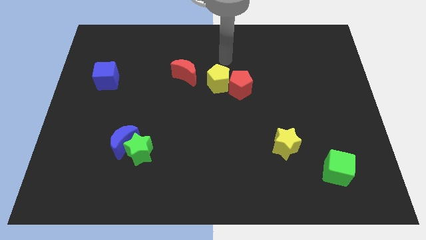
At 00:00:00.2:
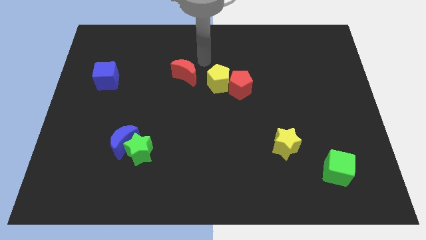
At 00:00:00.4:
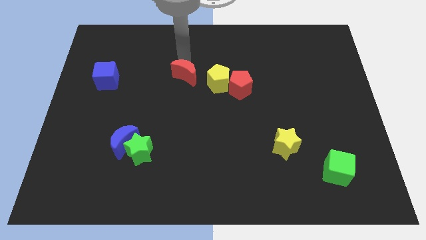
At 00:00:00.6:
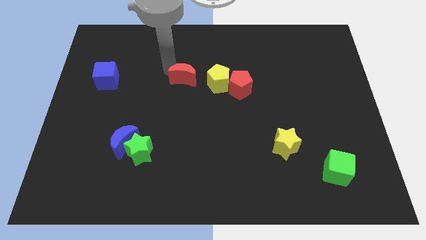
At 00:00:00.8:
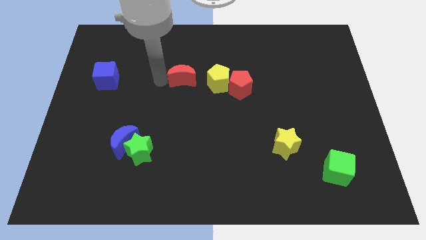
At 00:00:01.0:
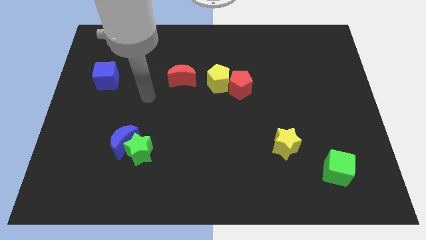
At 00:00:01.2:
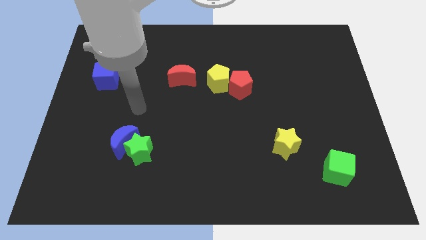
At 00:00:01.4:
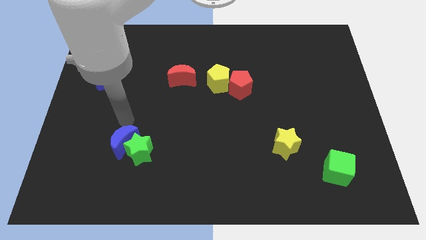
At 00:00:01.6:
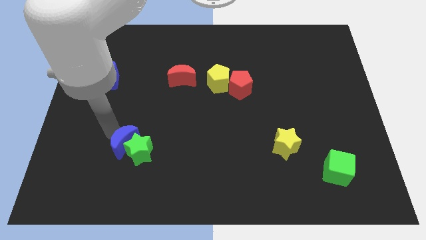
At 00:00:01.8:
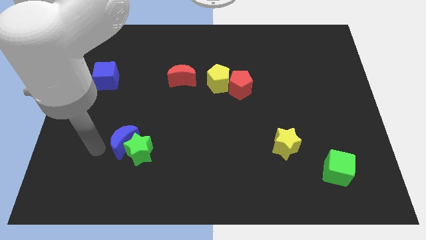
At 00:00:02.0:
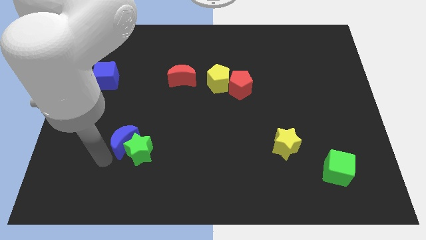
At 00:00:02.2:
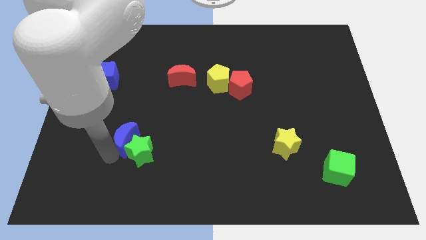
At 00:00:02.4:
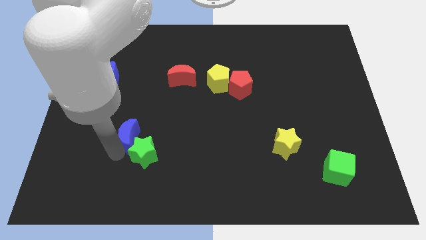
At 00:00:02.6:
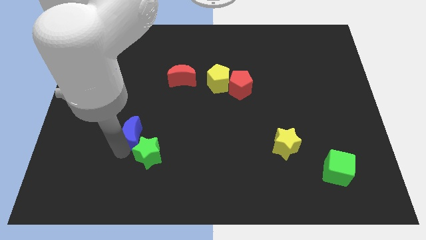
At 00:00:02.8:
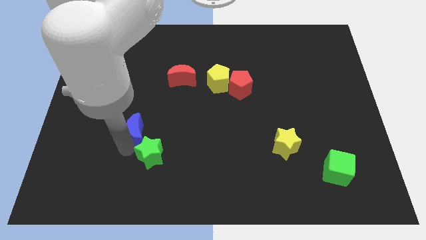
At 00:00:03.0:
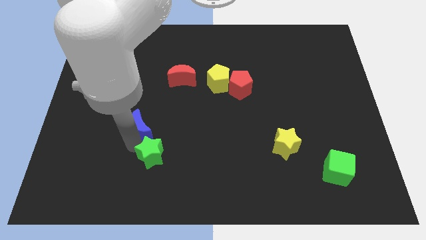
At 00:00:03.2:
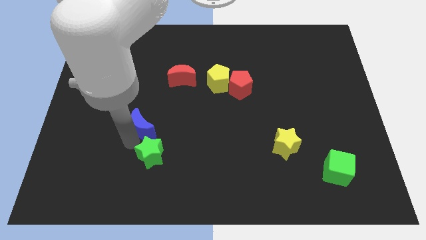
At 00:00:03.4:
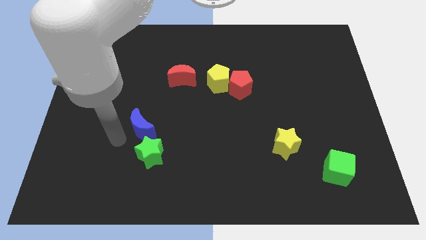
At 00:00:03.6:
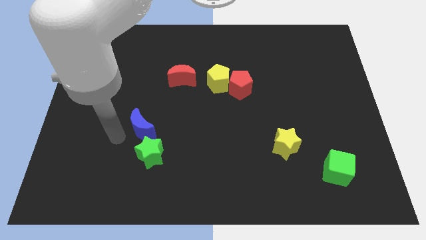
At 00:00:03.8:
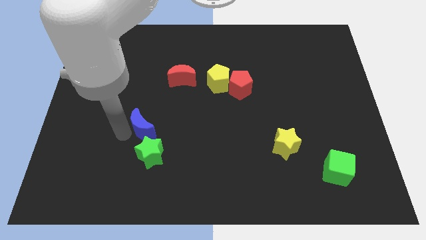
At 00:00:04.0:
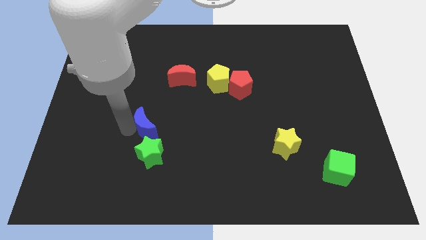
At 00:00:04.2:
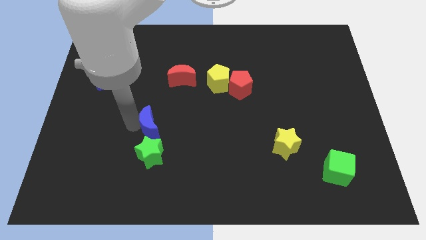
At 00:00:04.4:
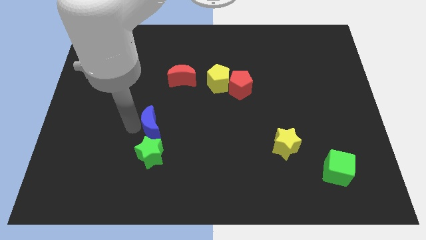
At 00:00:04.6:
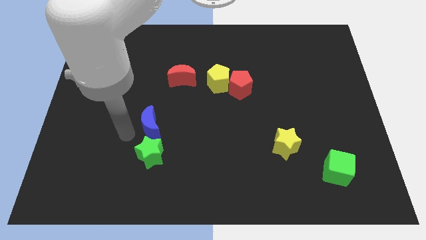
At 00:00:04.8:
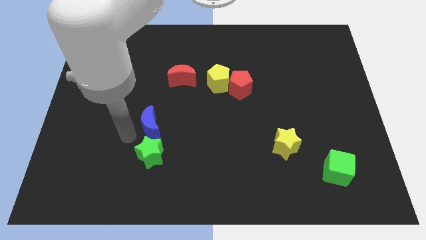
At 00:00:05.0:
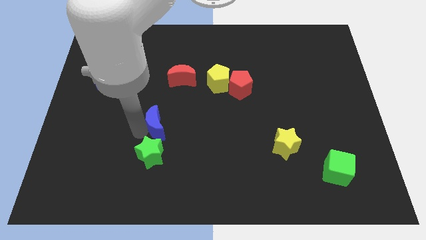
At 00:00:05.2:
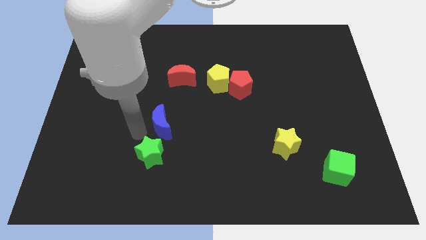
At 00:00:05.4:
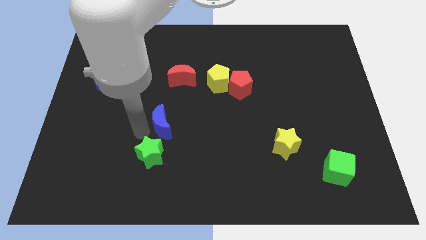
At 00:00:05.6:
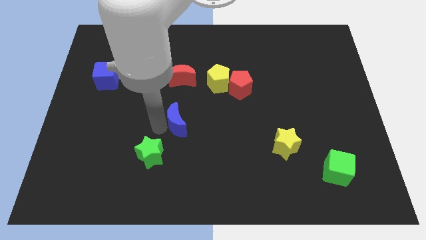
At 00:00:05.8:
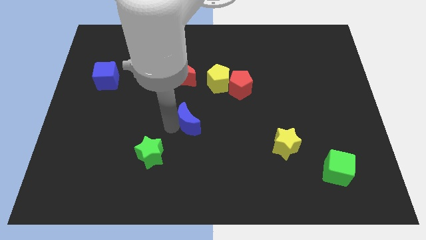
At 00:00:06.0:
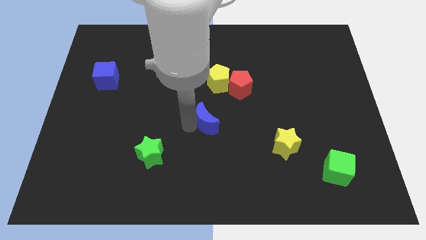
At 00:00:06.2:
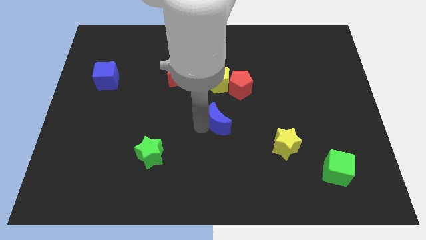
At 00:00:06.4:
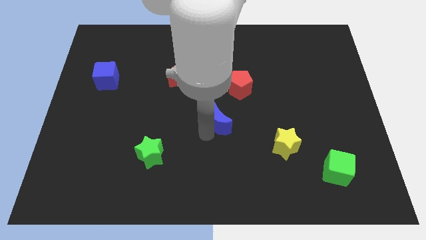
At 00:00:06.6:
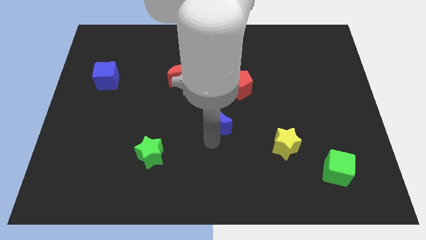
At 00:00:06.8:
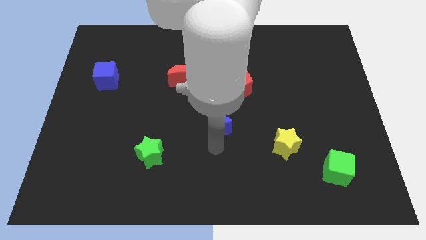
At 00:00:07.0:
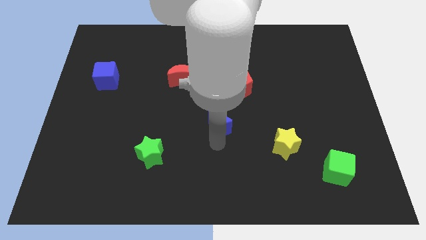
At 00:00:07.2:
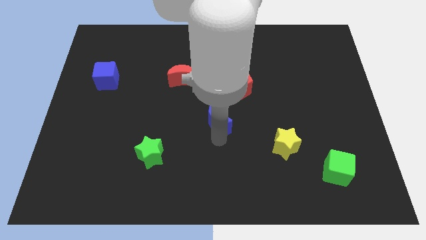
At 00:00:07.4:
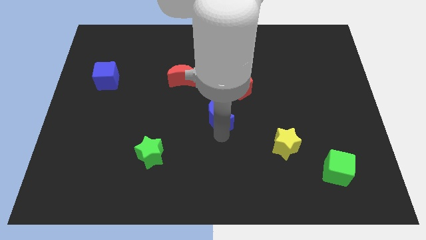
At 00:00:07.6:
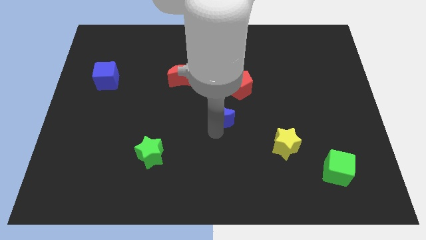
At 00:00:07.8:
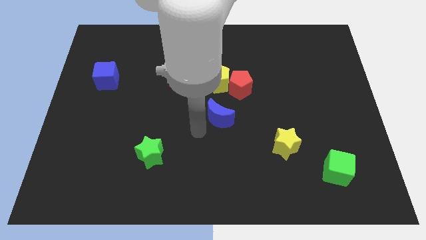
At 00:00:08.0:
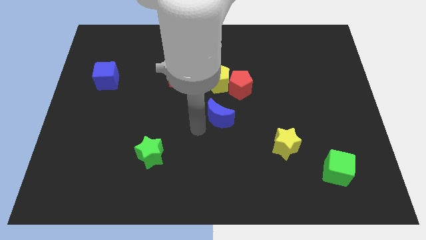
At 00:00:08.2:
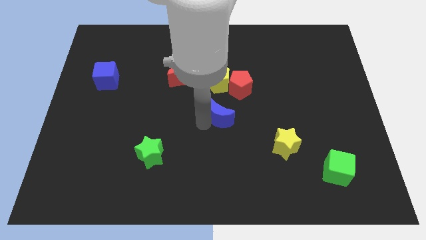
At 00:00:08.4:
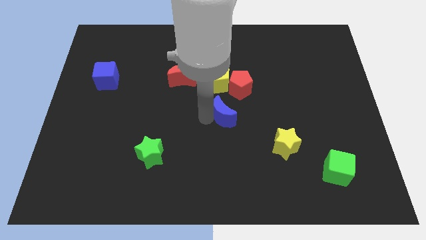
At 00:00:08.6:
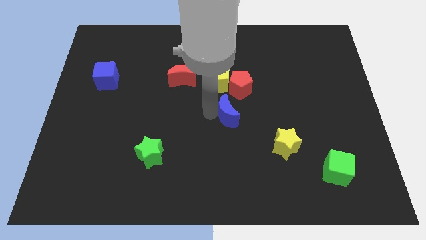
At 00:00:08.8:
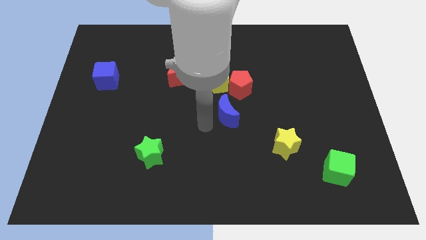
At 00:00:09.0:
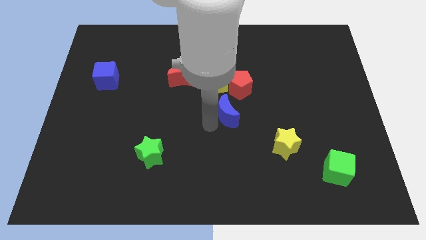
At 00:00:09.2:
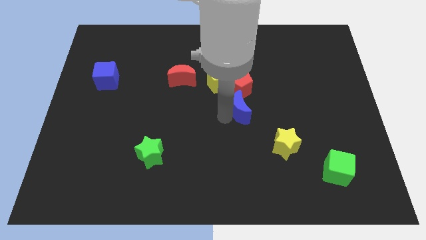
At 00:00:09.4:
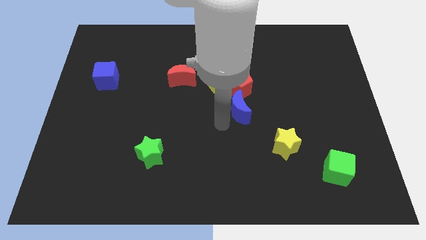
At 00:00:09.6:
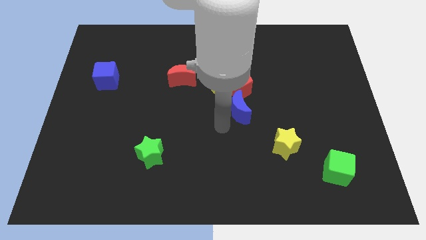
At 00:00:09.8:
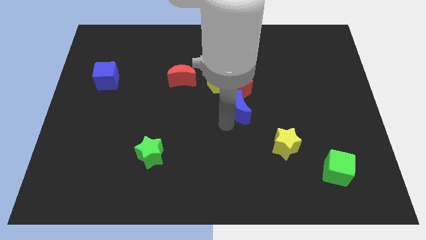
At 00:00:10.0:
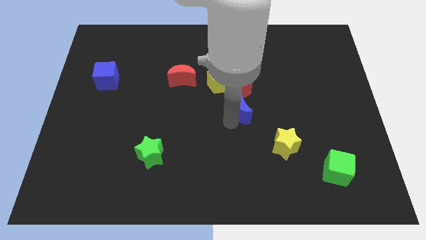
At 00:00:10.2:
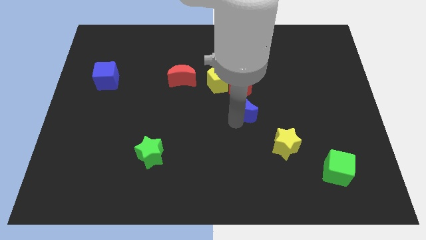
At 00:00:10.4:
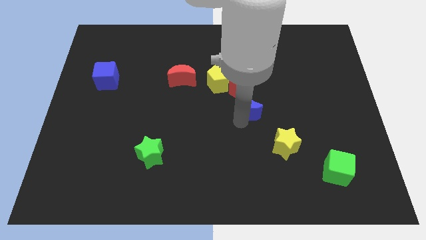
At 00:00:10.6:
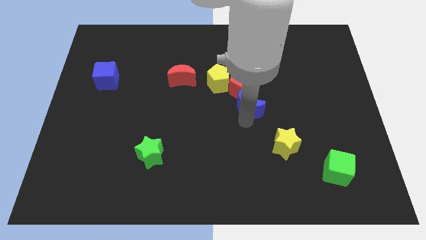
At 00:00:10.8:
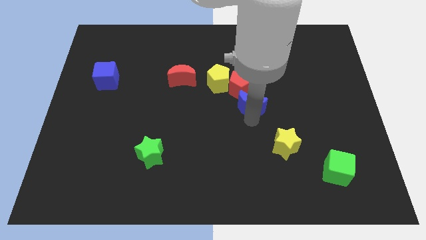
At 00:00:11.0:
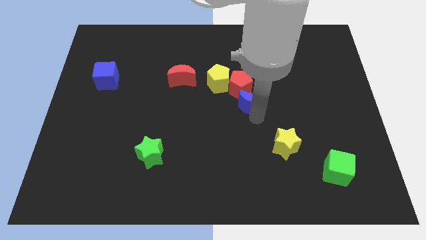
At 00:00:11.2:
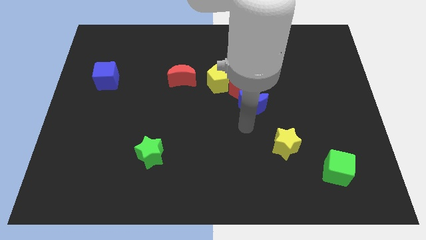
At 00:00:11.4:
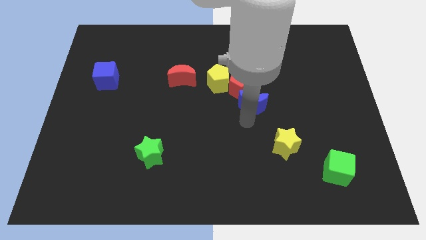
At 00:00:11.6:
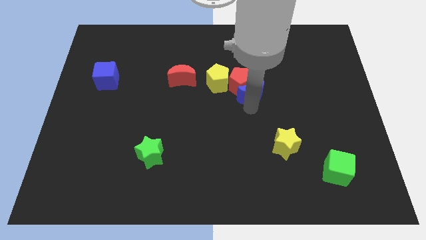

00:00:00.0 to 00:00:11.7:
move the blue moon to the right of the yellow pentagon
